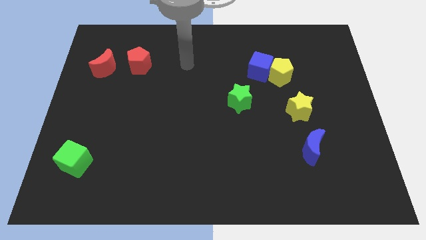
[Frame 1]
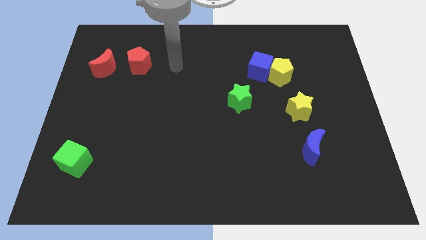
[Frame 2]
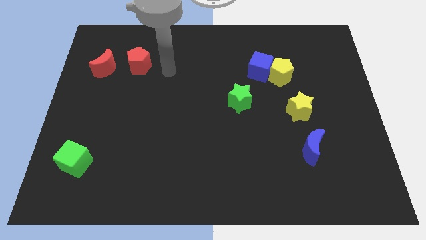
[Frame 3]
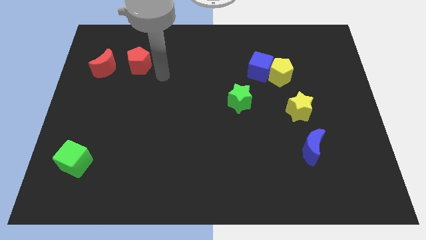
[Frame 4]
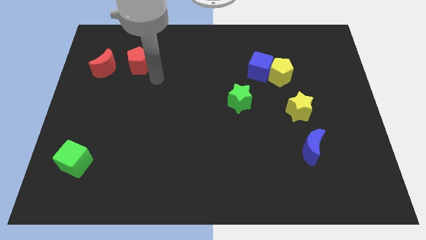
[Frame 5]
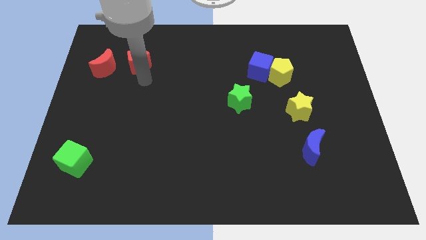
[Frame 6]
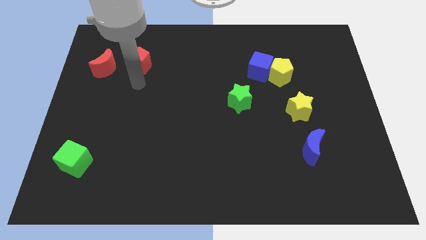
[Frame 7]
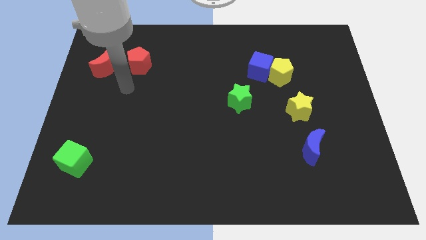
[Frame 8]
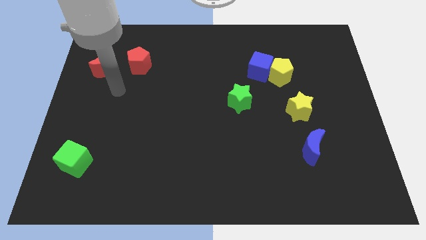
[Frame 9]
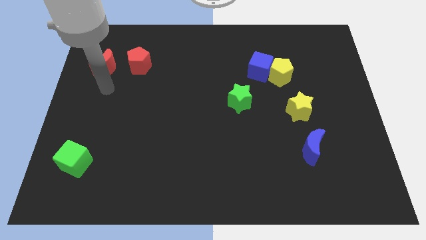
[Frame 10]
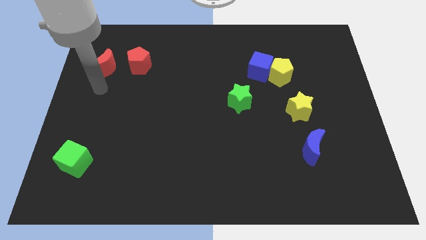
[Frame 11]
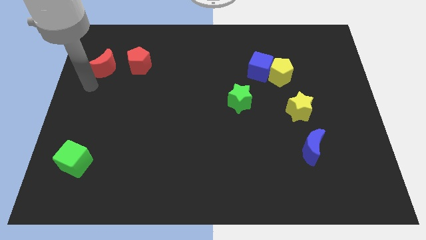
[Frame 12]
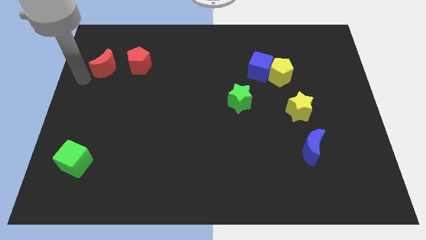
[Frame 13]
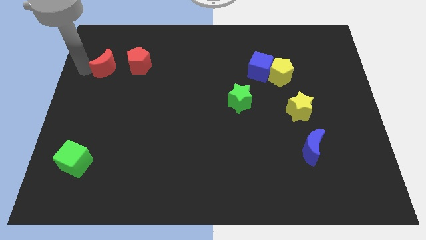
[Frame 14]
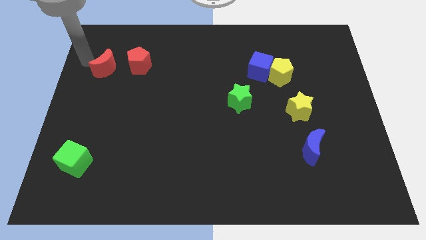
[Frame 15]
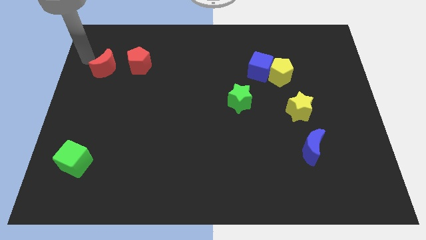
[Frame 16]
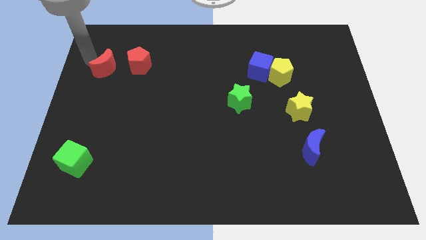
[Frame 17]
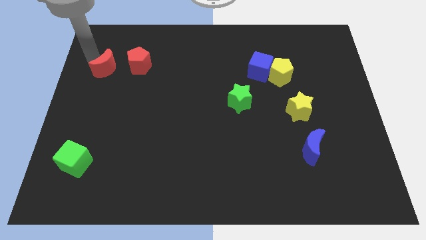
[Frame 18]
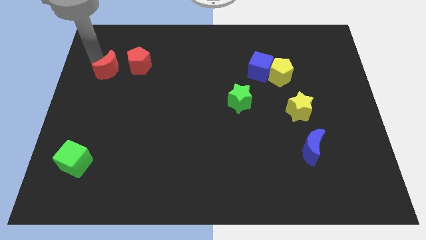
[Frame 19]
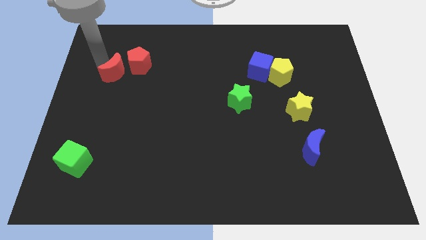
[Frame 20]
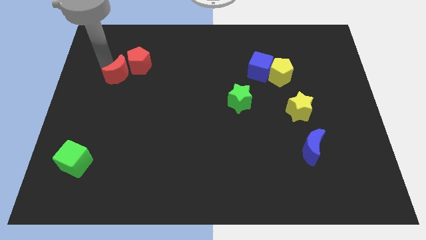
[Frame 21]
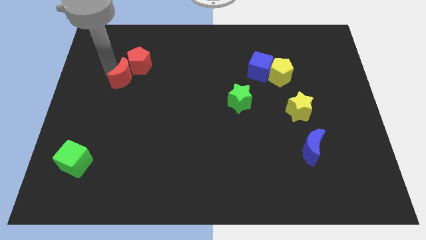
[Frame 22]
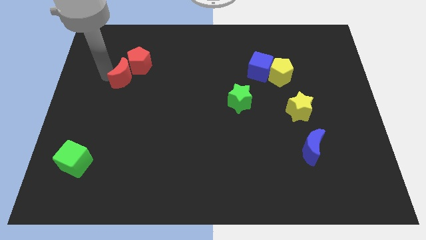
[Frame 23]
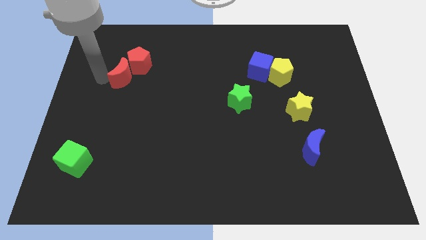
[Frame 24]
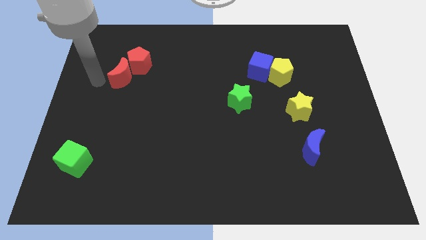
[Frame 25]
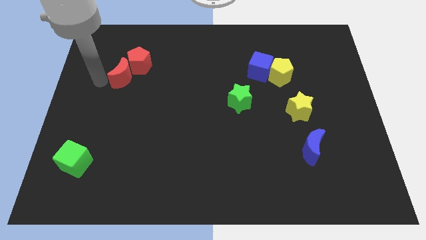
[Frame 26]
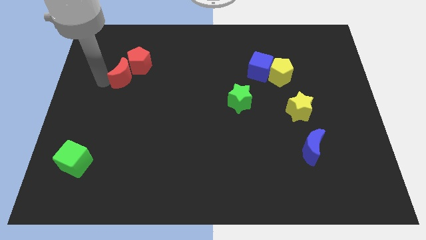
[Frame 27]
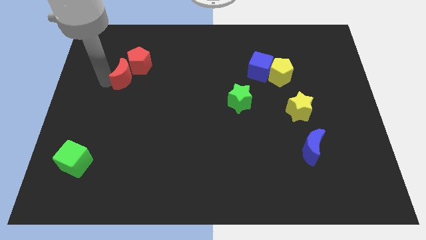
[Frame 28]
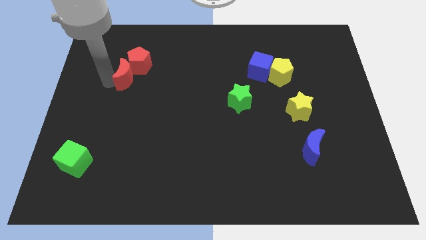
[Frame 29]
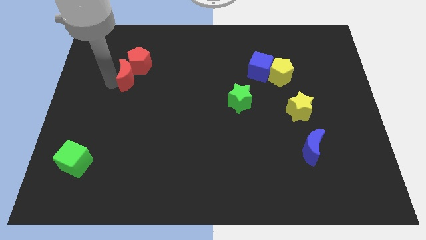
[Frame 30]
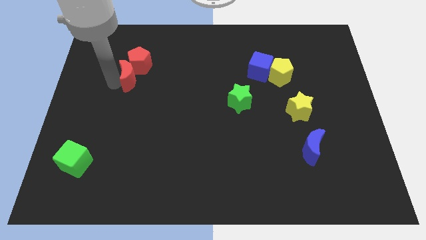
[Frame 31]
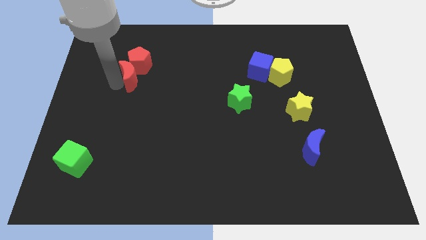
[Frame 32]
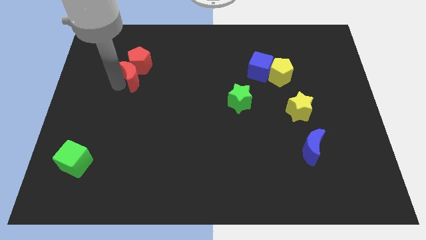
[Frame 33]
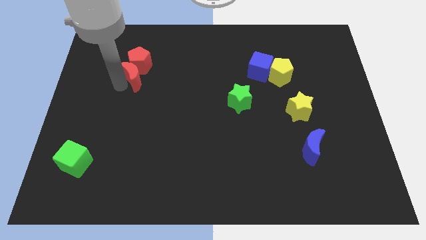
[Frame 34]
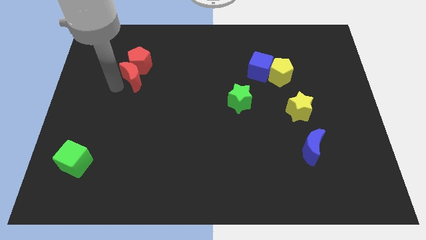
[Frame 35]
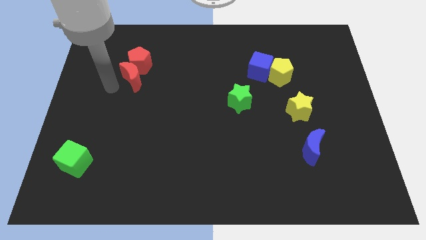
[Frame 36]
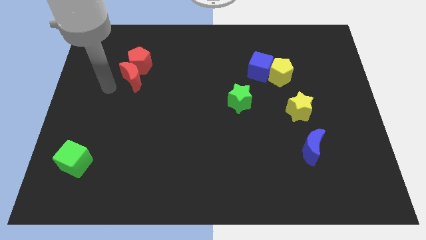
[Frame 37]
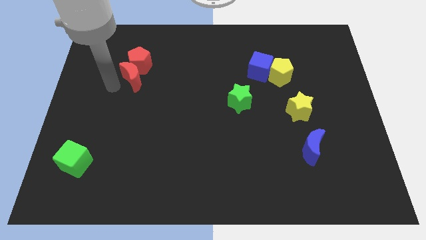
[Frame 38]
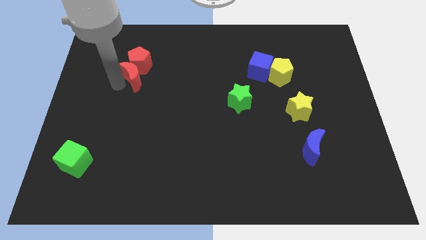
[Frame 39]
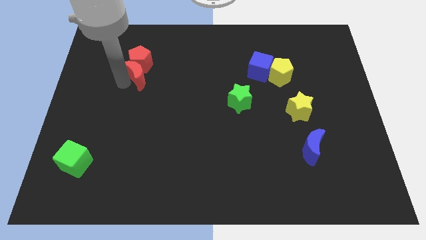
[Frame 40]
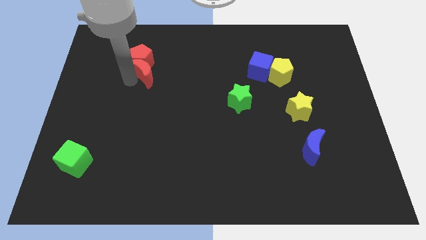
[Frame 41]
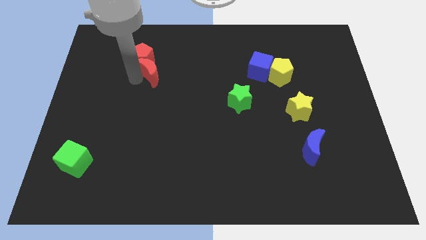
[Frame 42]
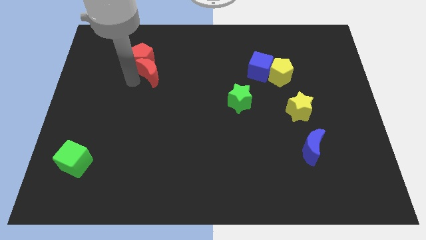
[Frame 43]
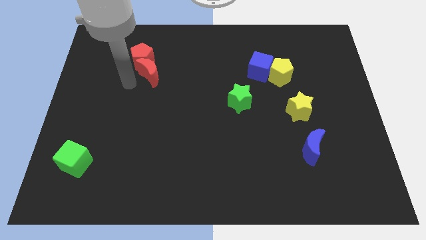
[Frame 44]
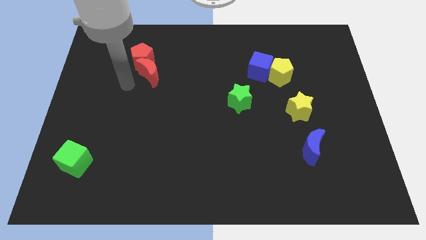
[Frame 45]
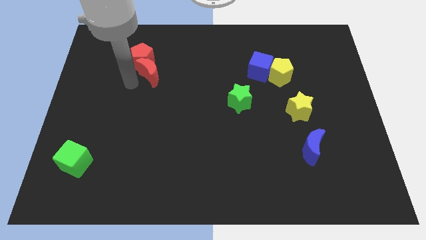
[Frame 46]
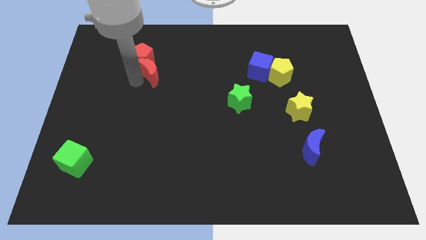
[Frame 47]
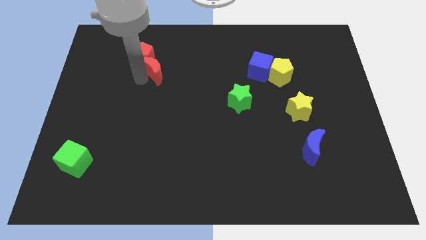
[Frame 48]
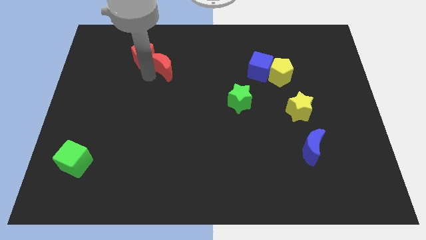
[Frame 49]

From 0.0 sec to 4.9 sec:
slide the red moon to the right side of the red pentagon

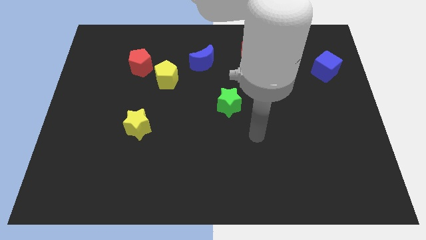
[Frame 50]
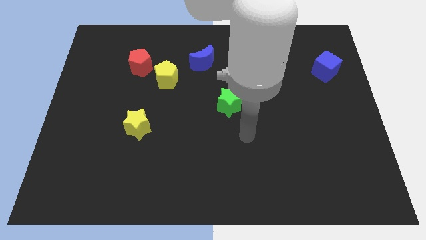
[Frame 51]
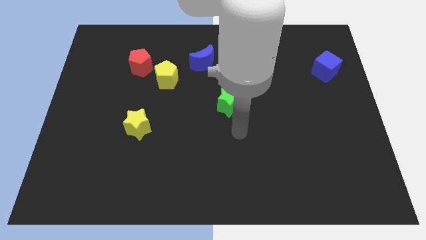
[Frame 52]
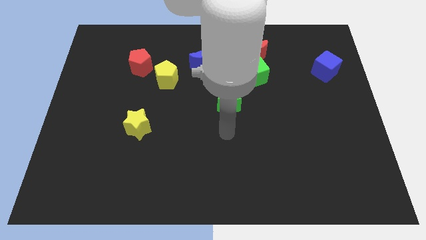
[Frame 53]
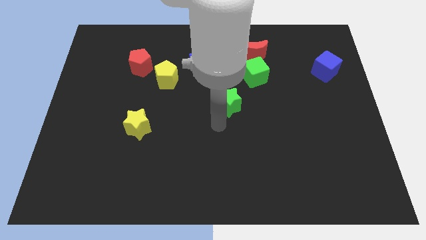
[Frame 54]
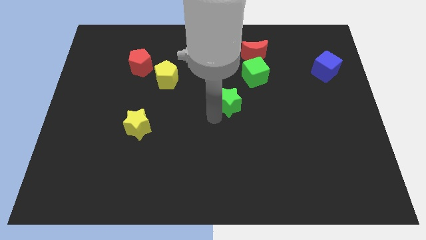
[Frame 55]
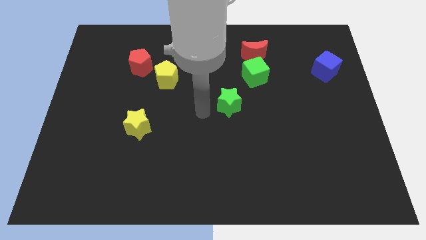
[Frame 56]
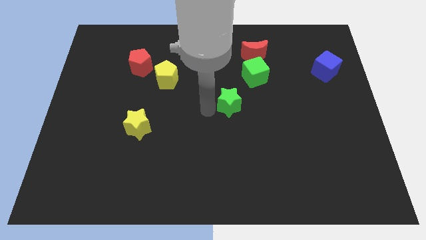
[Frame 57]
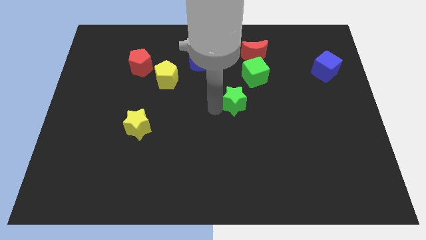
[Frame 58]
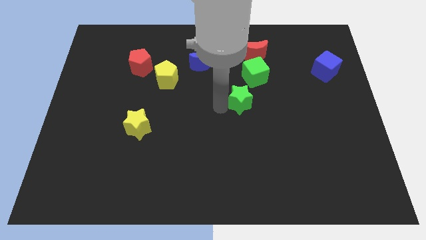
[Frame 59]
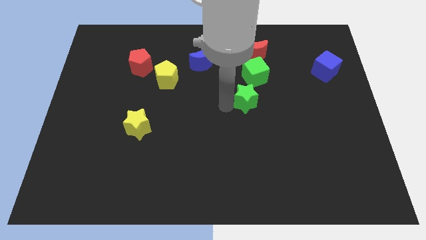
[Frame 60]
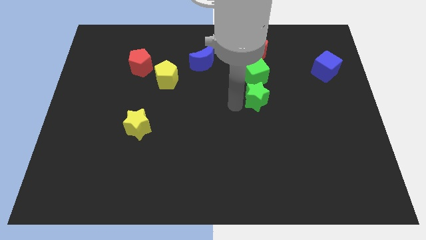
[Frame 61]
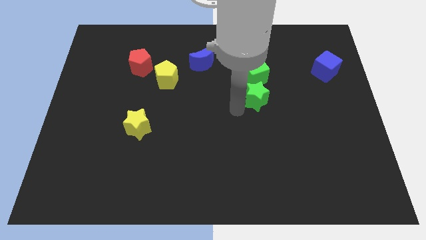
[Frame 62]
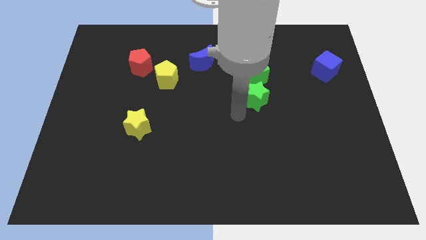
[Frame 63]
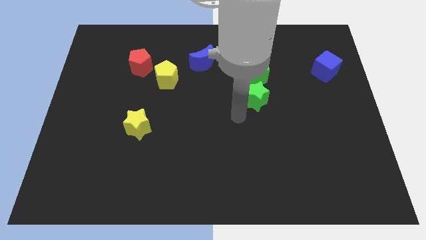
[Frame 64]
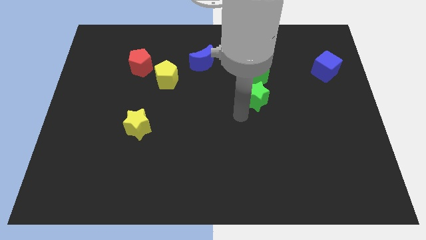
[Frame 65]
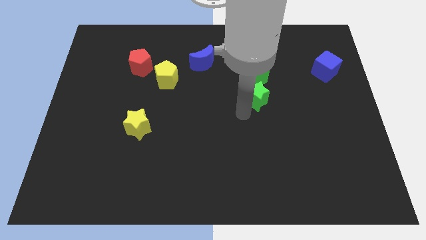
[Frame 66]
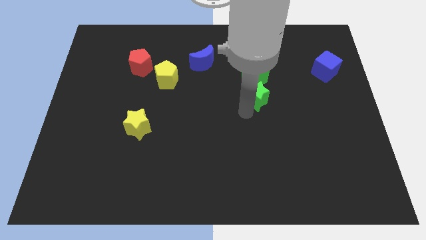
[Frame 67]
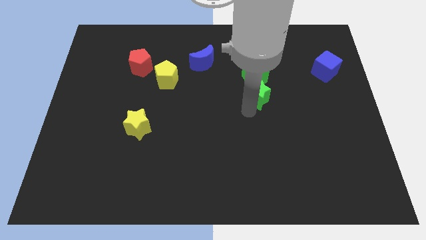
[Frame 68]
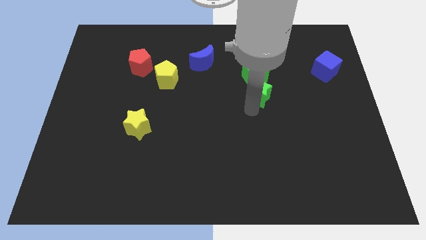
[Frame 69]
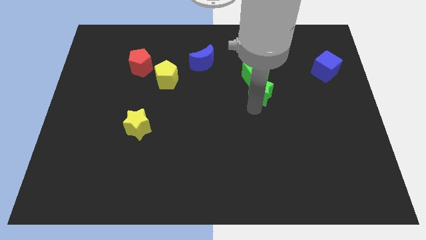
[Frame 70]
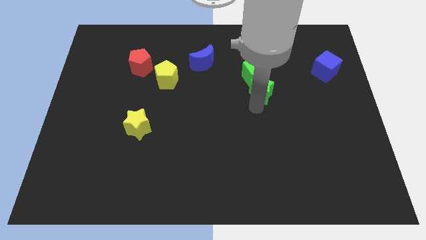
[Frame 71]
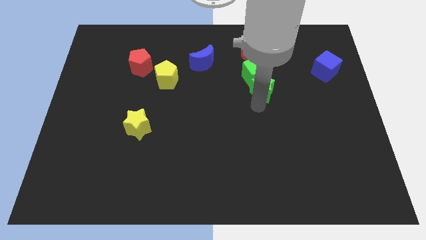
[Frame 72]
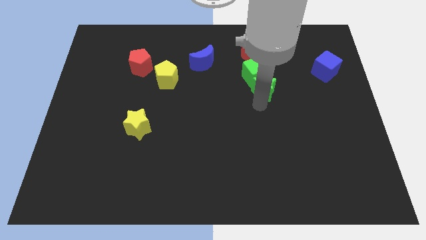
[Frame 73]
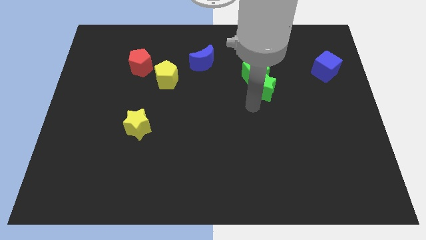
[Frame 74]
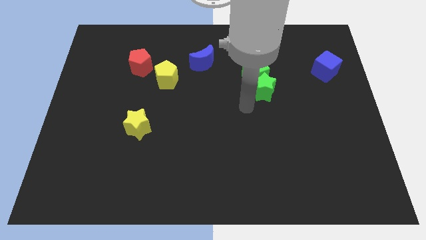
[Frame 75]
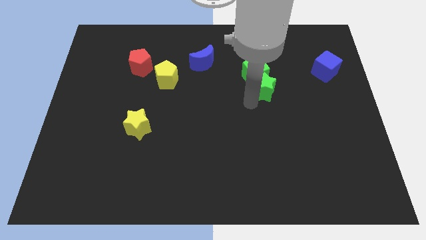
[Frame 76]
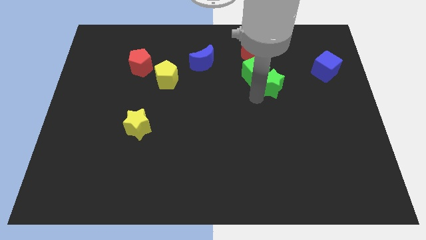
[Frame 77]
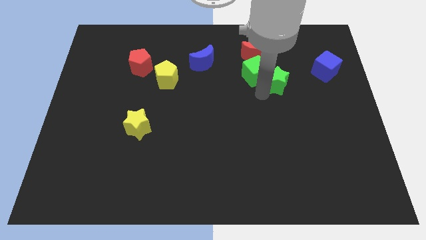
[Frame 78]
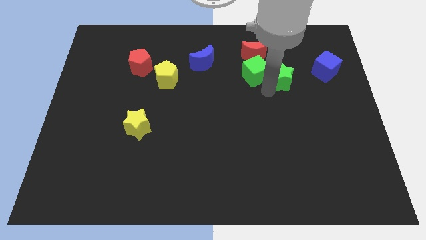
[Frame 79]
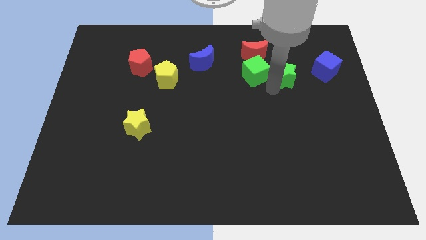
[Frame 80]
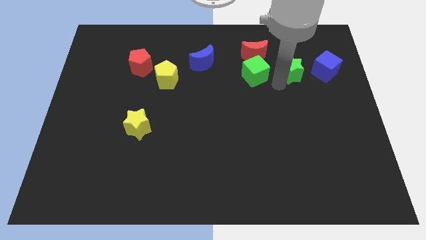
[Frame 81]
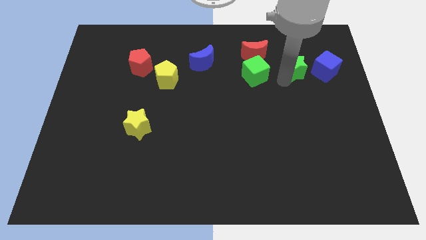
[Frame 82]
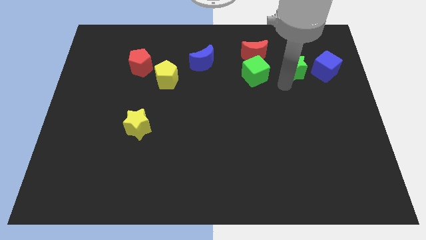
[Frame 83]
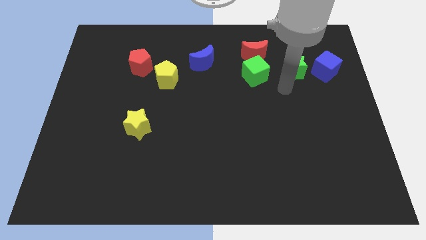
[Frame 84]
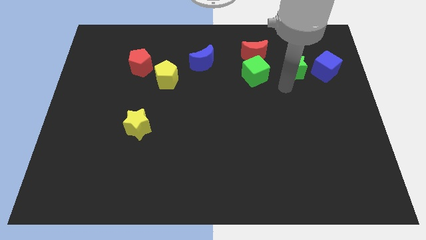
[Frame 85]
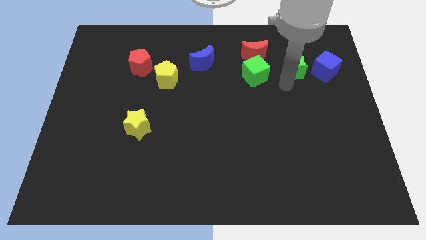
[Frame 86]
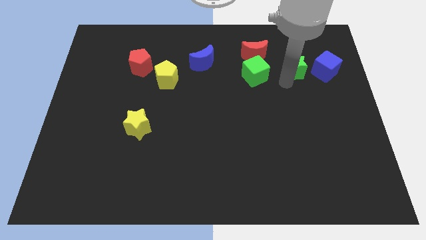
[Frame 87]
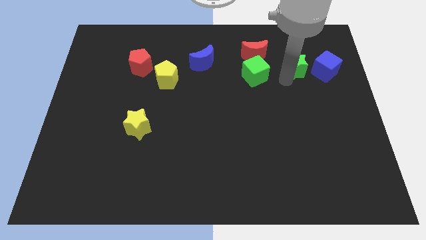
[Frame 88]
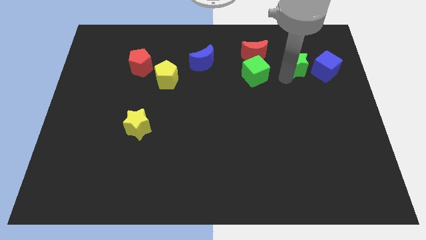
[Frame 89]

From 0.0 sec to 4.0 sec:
put the green star diagonally up and to the left of the blue cube
